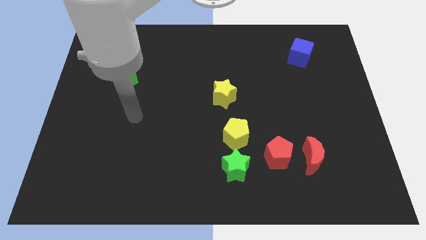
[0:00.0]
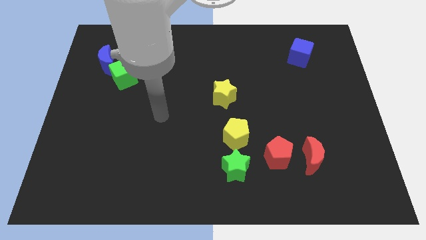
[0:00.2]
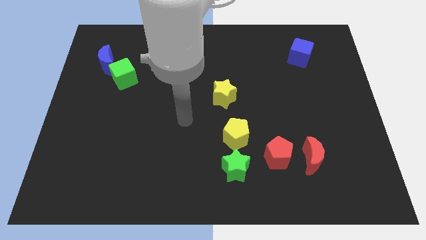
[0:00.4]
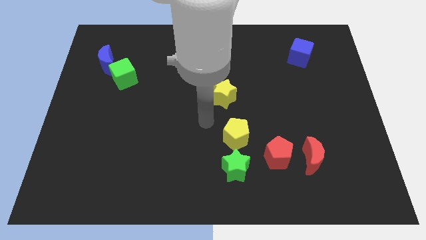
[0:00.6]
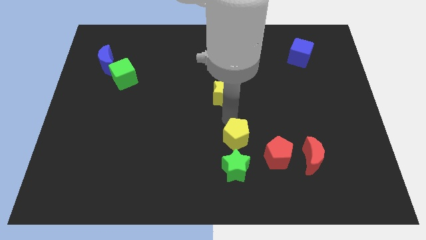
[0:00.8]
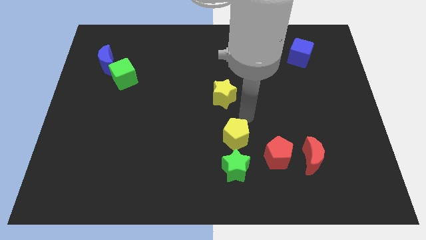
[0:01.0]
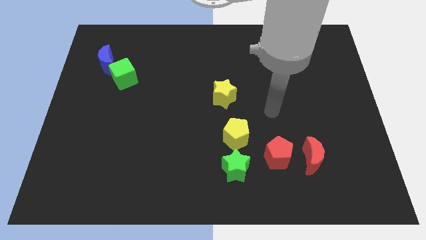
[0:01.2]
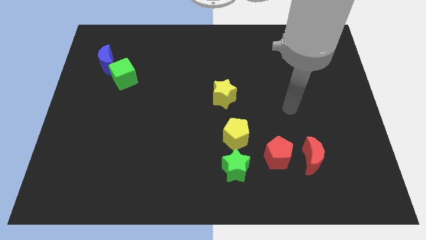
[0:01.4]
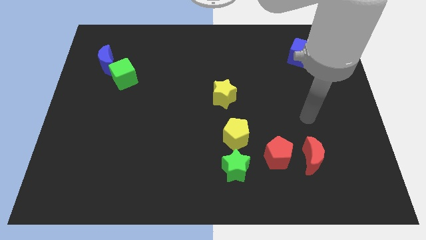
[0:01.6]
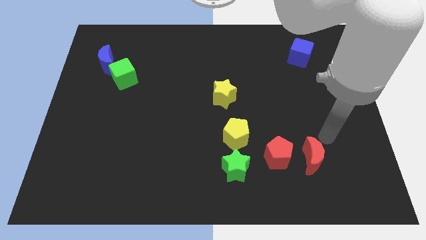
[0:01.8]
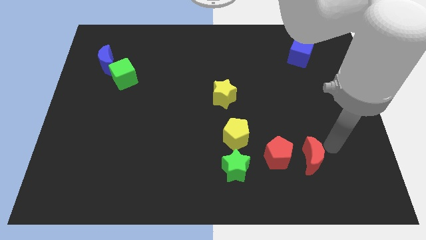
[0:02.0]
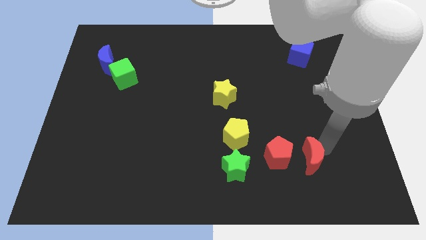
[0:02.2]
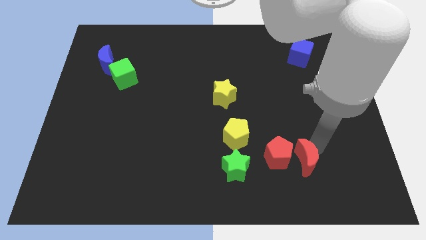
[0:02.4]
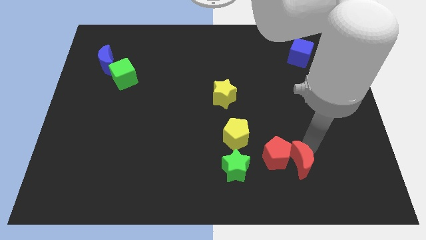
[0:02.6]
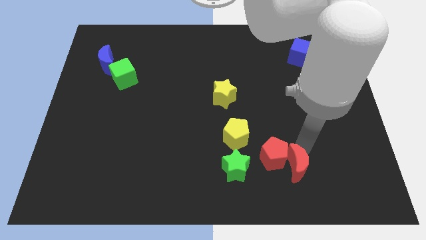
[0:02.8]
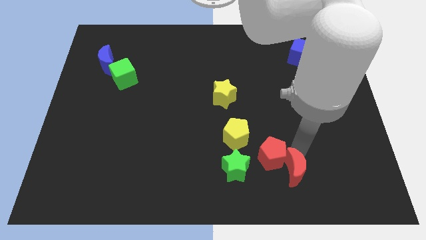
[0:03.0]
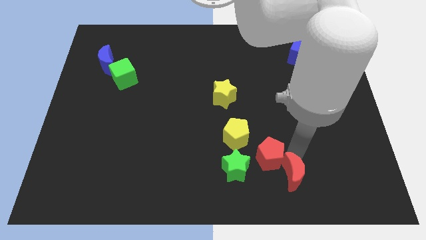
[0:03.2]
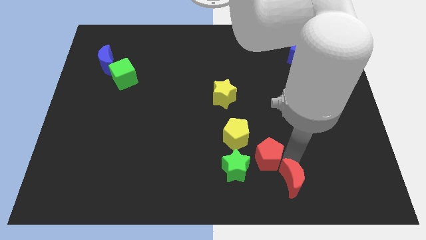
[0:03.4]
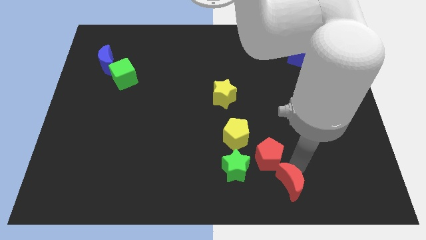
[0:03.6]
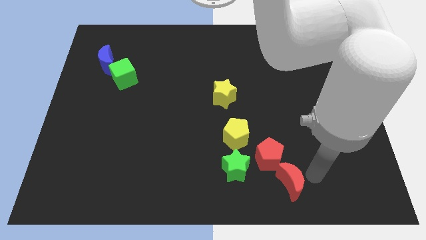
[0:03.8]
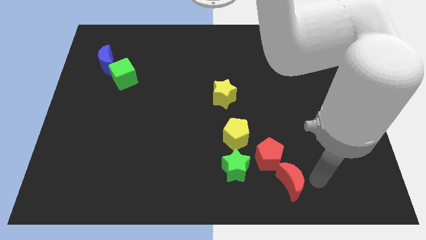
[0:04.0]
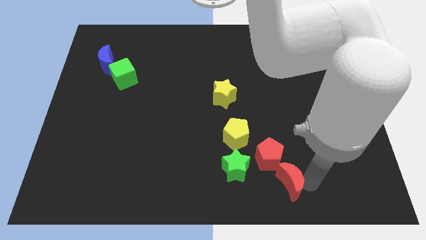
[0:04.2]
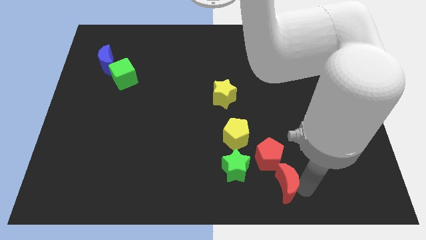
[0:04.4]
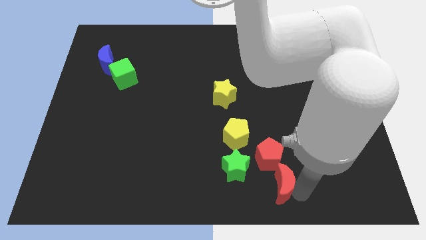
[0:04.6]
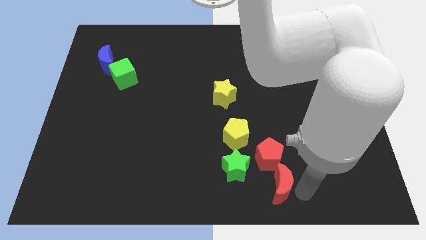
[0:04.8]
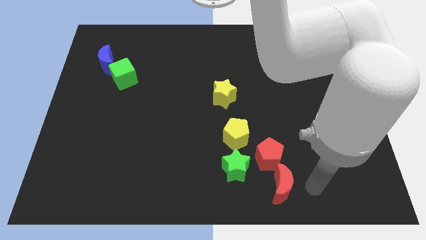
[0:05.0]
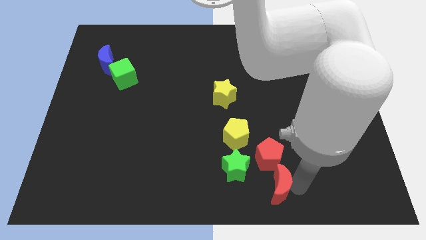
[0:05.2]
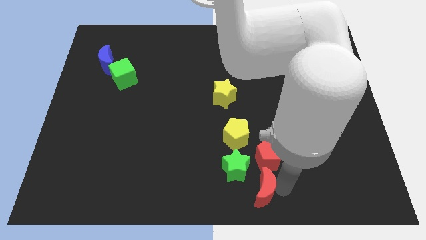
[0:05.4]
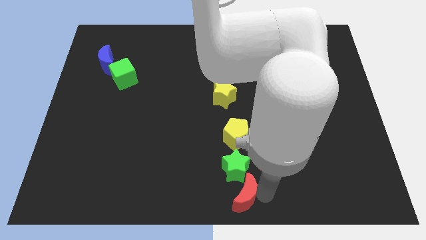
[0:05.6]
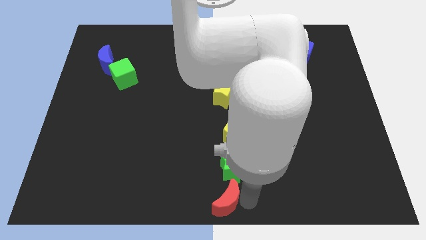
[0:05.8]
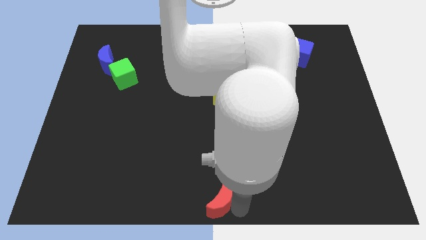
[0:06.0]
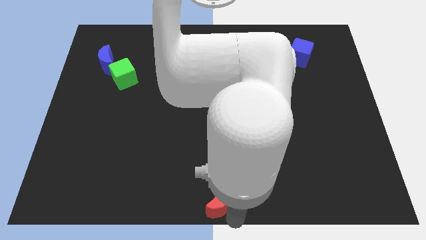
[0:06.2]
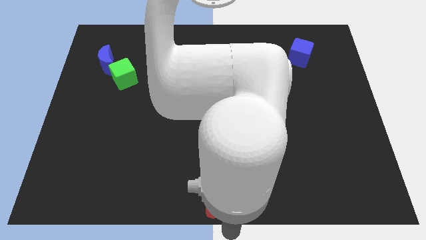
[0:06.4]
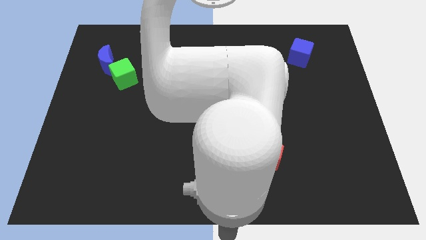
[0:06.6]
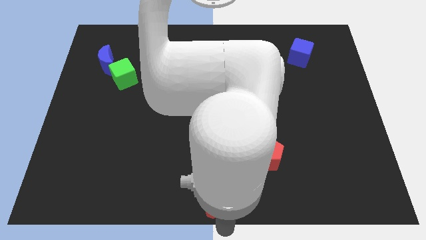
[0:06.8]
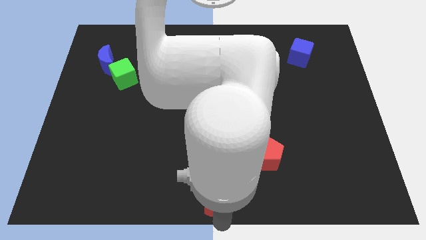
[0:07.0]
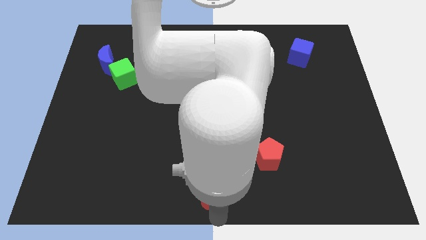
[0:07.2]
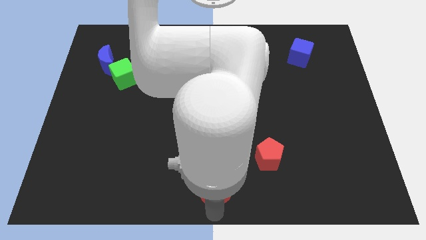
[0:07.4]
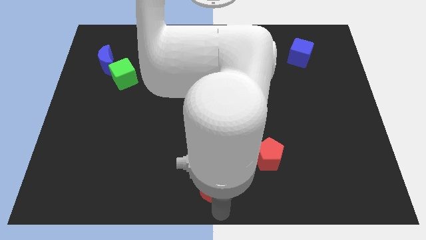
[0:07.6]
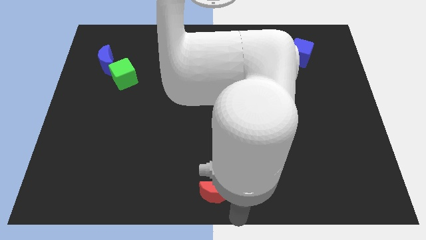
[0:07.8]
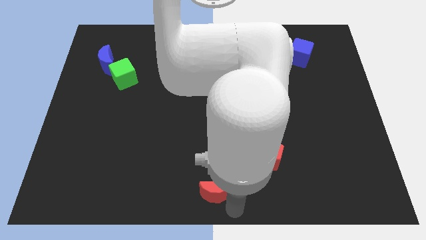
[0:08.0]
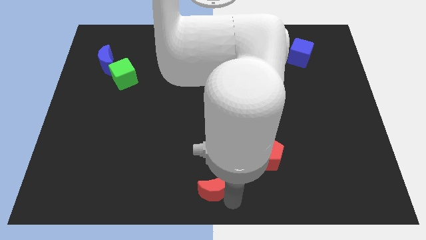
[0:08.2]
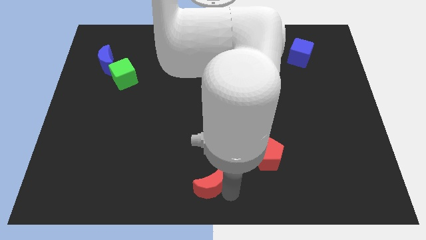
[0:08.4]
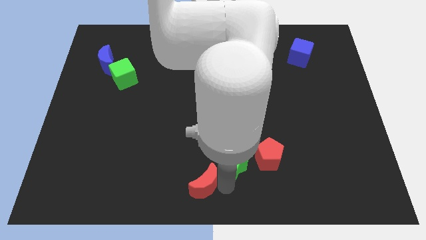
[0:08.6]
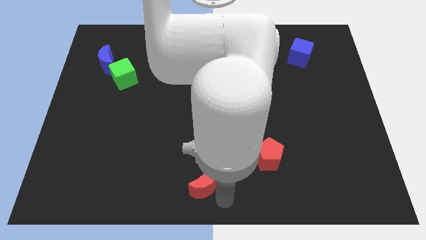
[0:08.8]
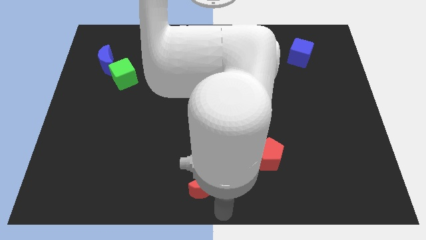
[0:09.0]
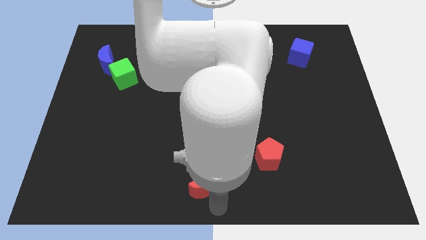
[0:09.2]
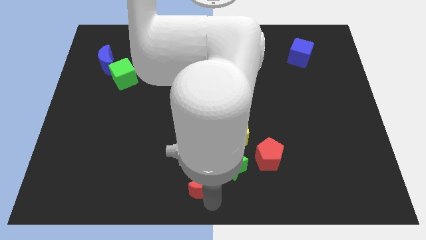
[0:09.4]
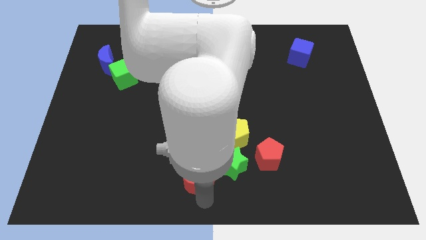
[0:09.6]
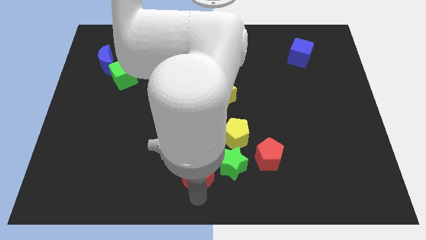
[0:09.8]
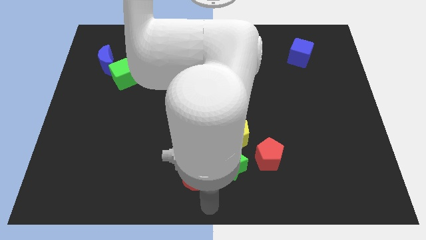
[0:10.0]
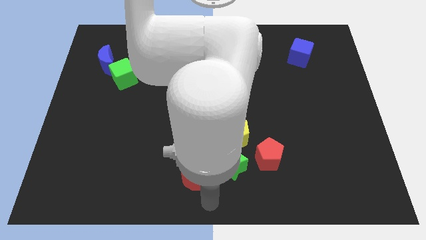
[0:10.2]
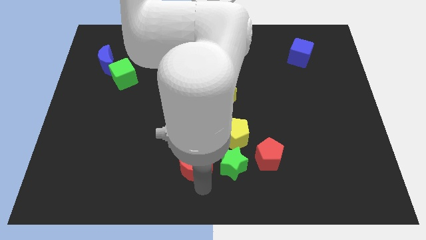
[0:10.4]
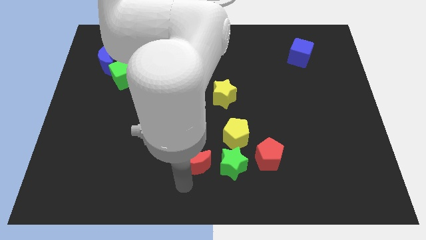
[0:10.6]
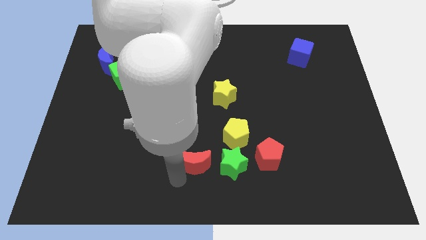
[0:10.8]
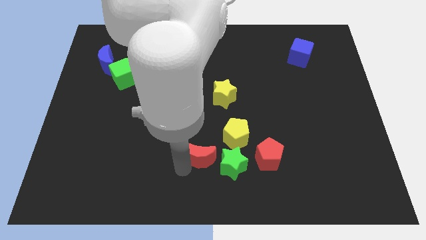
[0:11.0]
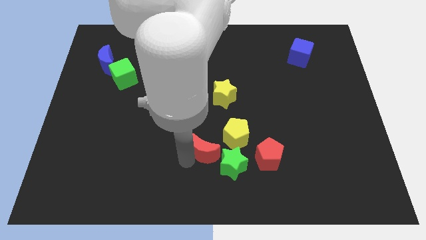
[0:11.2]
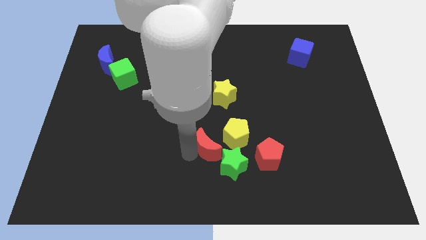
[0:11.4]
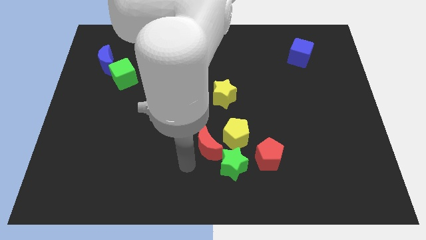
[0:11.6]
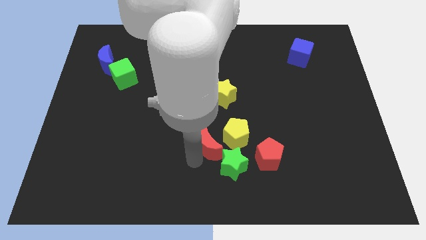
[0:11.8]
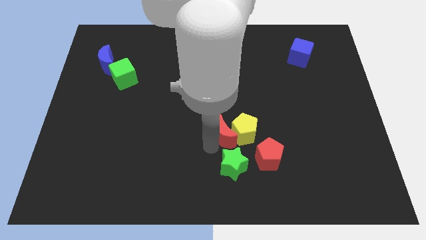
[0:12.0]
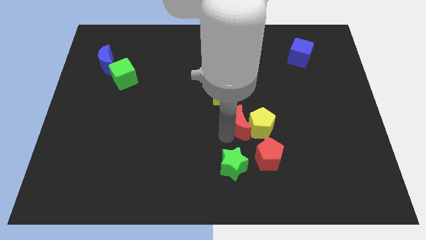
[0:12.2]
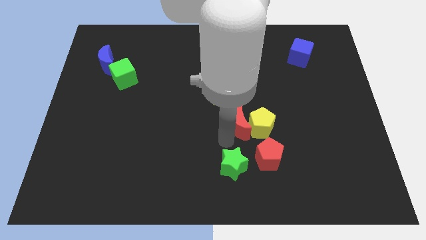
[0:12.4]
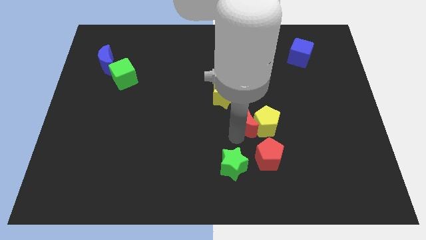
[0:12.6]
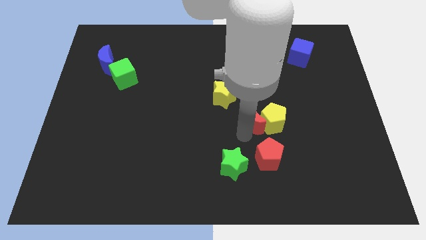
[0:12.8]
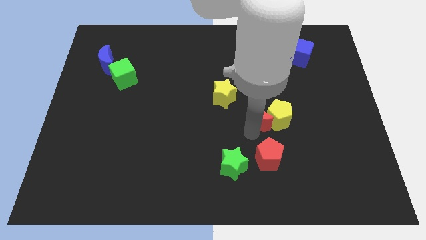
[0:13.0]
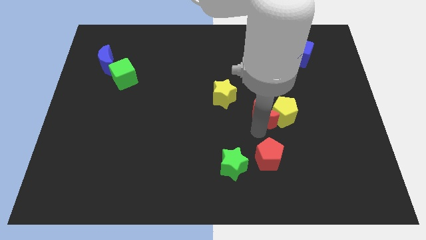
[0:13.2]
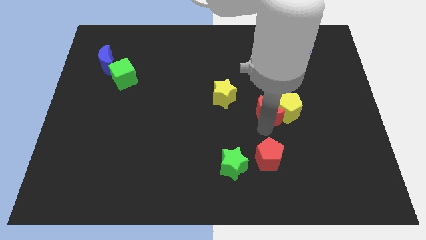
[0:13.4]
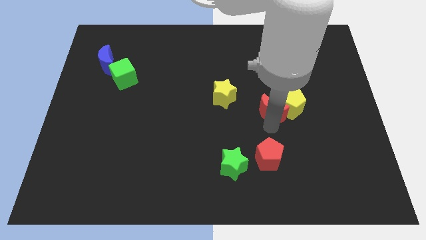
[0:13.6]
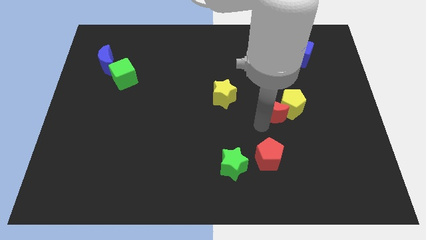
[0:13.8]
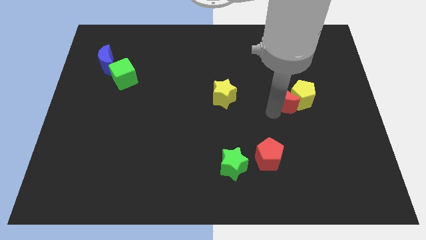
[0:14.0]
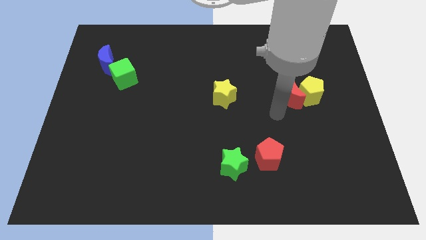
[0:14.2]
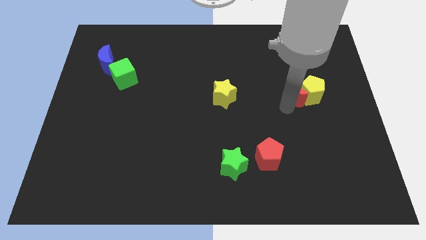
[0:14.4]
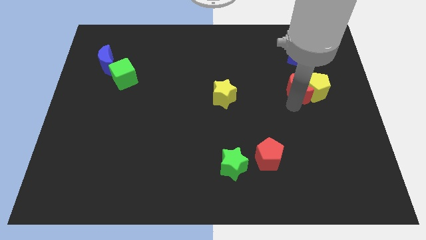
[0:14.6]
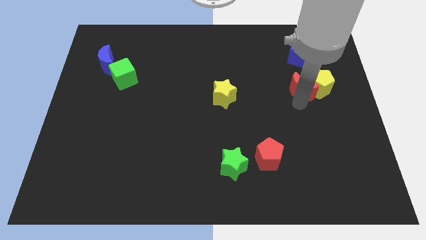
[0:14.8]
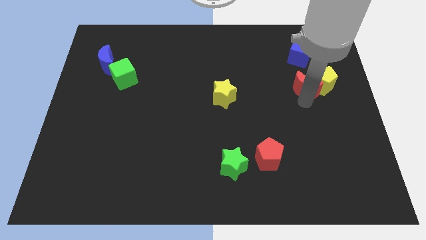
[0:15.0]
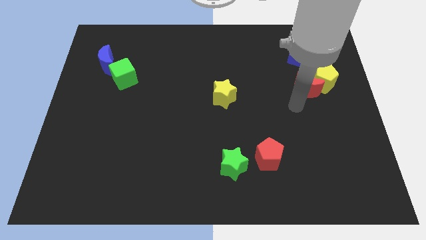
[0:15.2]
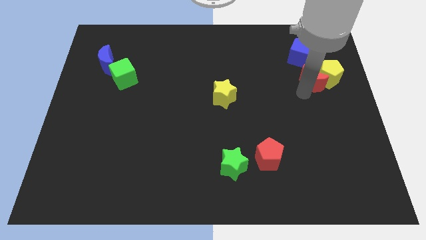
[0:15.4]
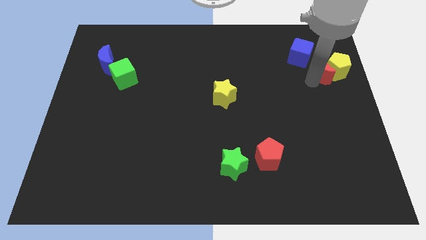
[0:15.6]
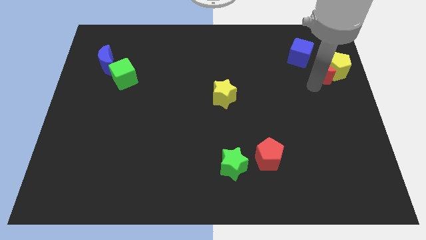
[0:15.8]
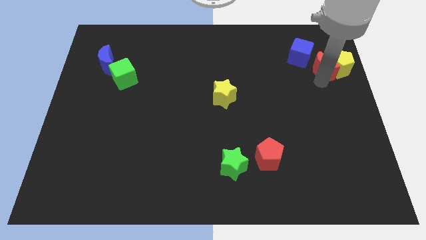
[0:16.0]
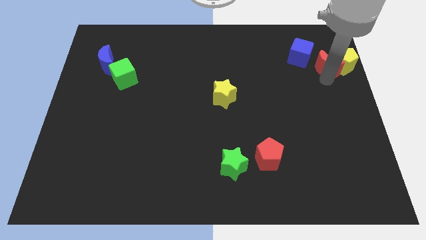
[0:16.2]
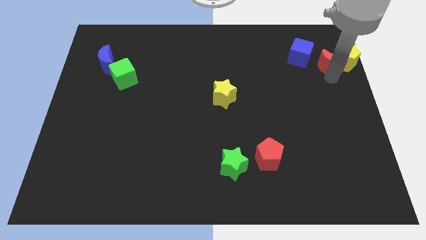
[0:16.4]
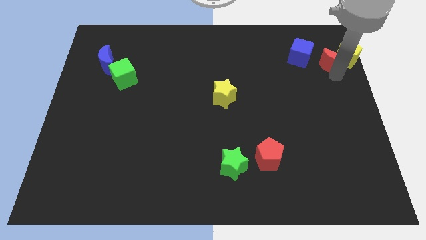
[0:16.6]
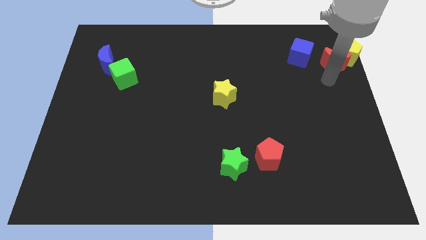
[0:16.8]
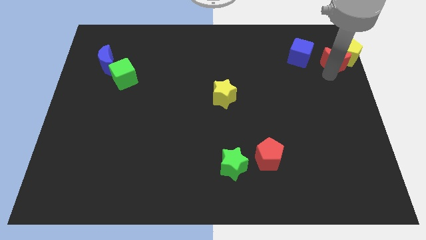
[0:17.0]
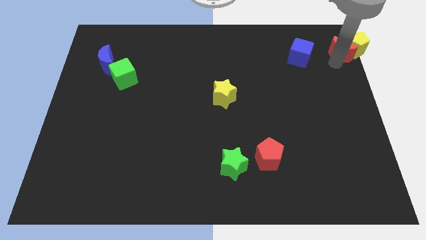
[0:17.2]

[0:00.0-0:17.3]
slide the red moon to the top right
